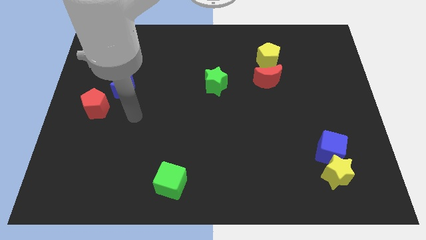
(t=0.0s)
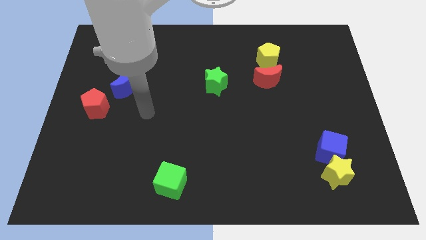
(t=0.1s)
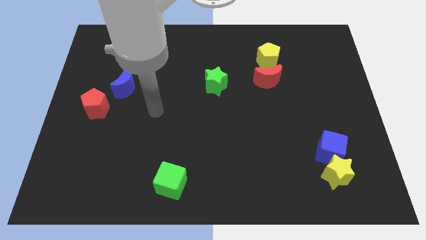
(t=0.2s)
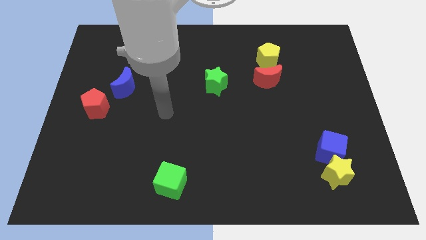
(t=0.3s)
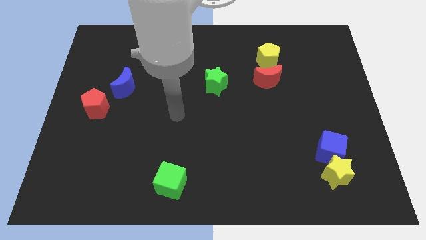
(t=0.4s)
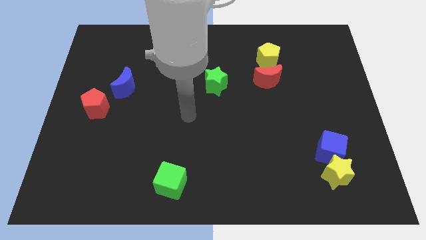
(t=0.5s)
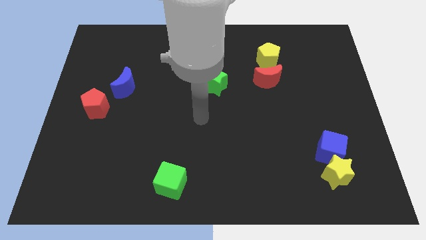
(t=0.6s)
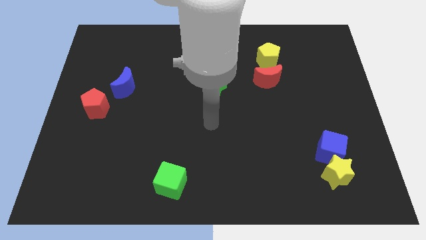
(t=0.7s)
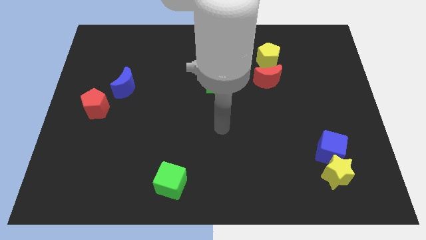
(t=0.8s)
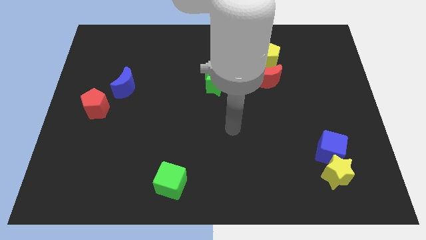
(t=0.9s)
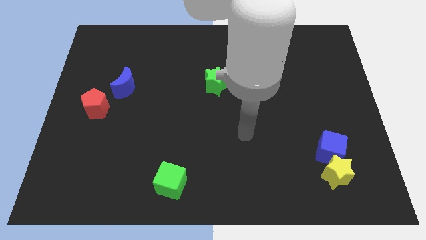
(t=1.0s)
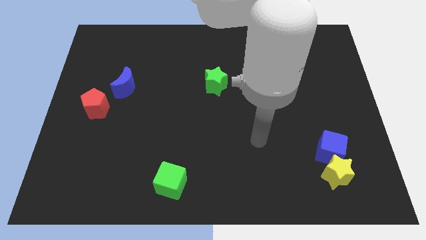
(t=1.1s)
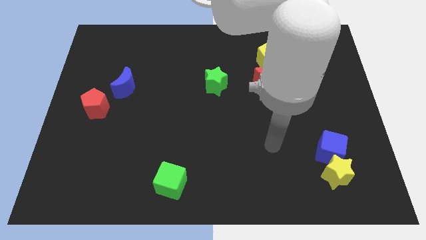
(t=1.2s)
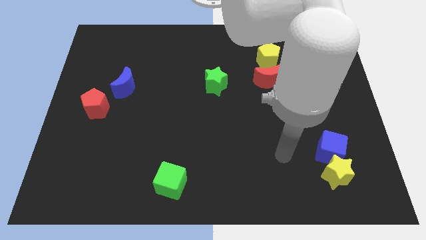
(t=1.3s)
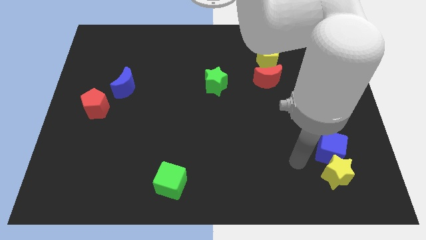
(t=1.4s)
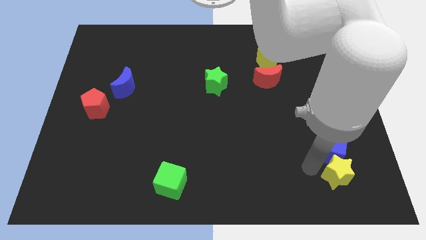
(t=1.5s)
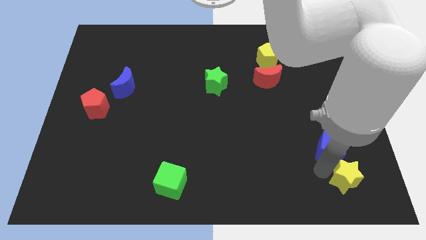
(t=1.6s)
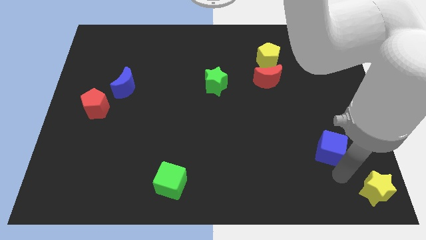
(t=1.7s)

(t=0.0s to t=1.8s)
separate the blue cube from the yellow star

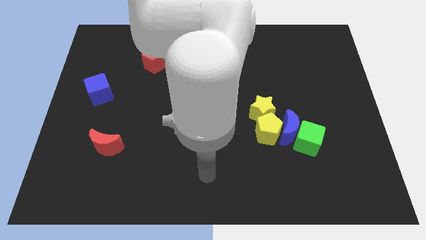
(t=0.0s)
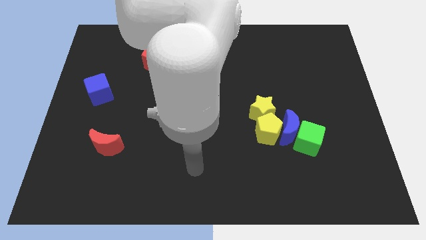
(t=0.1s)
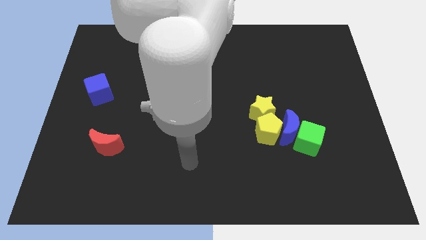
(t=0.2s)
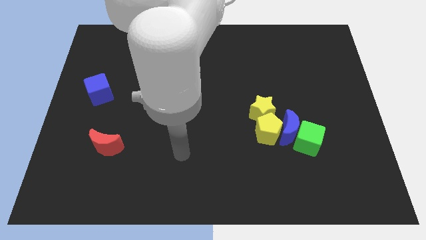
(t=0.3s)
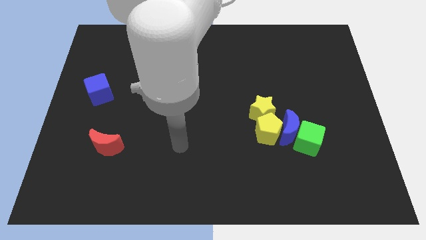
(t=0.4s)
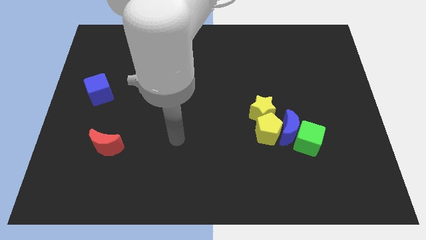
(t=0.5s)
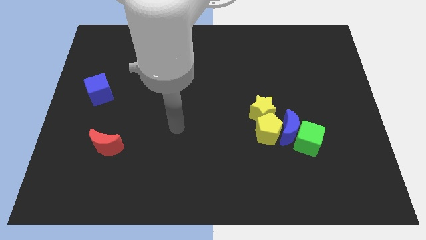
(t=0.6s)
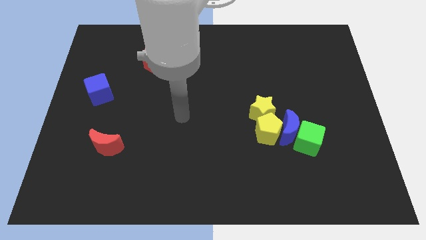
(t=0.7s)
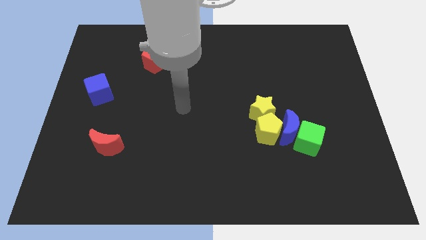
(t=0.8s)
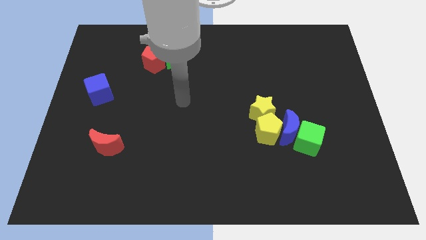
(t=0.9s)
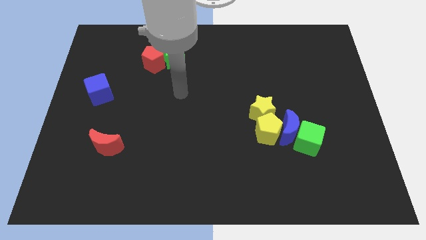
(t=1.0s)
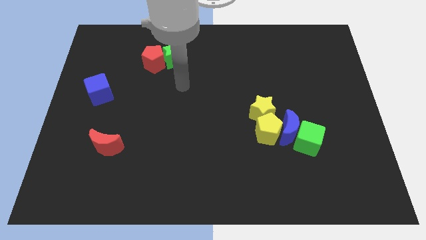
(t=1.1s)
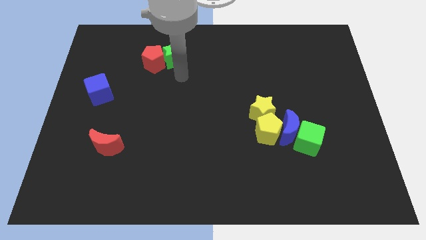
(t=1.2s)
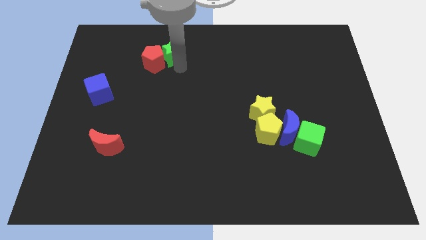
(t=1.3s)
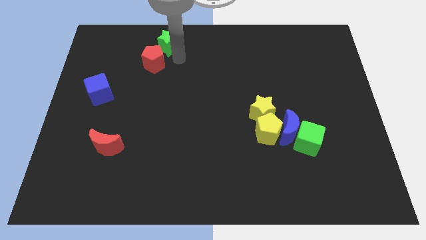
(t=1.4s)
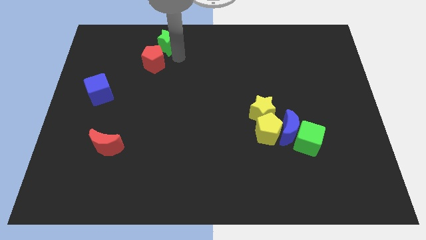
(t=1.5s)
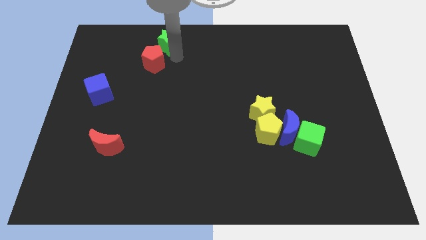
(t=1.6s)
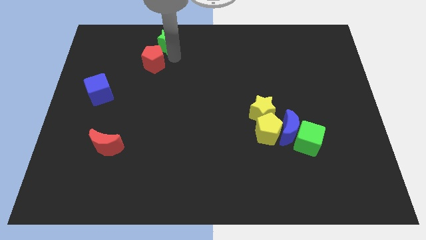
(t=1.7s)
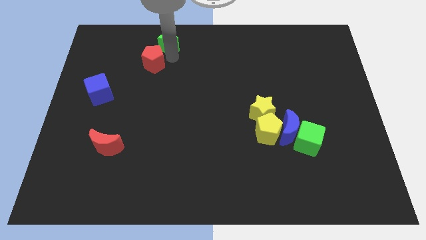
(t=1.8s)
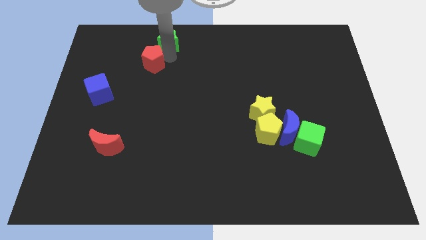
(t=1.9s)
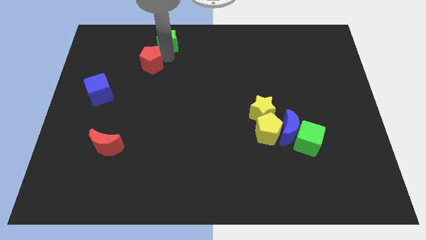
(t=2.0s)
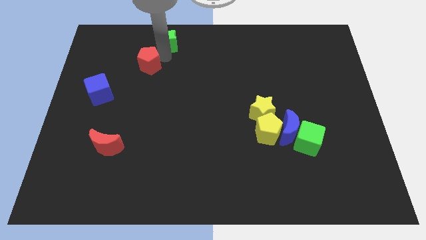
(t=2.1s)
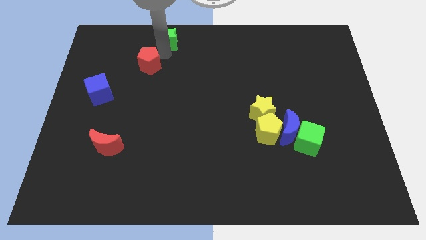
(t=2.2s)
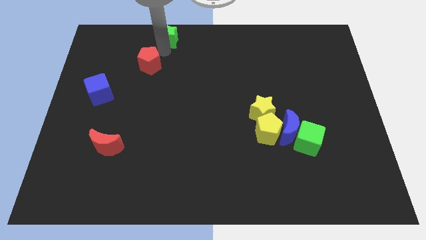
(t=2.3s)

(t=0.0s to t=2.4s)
move the red pentagon away from the green star

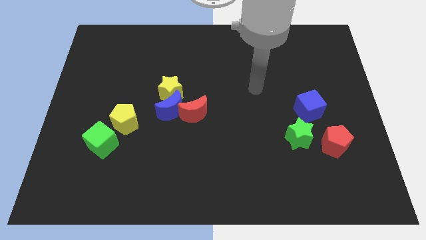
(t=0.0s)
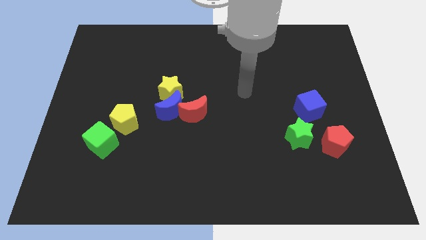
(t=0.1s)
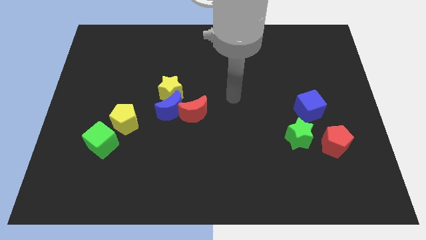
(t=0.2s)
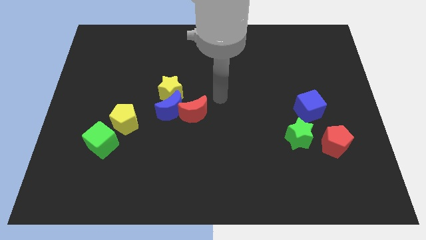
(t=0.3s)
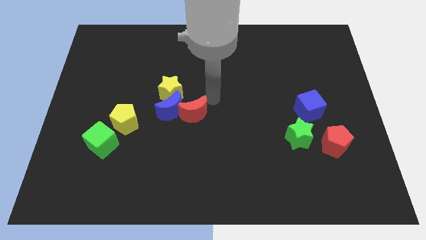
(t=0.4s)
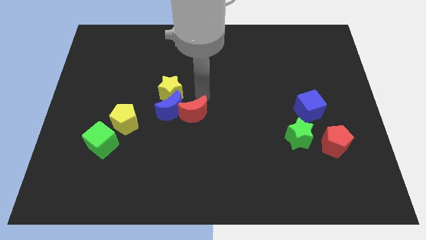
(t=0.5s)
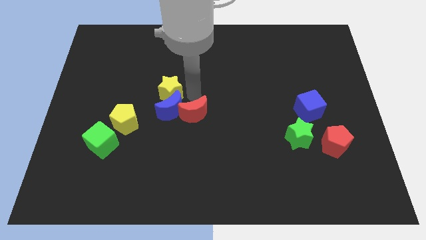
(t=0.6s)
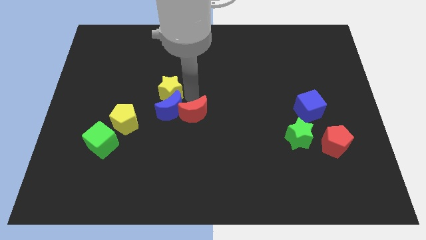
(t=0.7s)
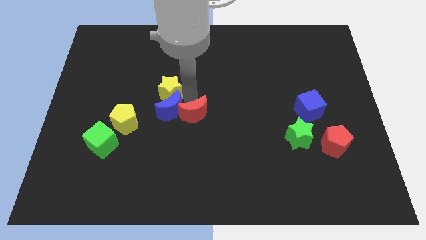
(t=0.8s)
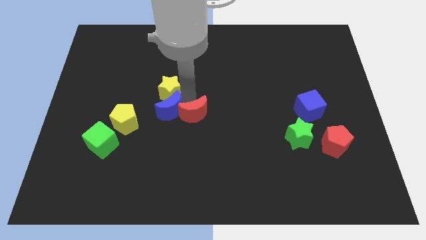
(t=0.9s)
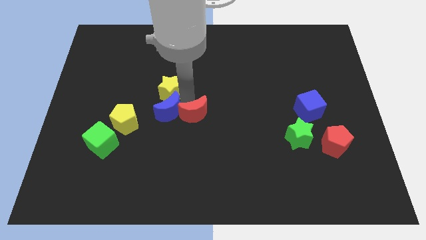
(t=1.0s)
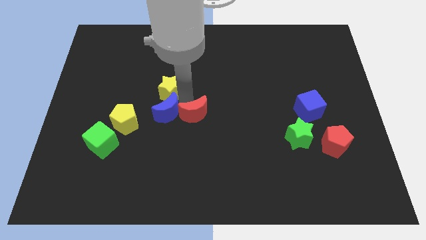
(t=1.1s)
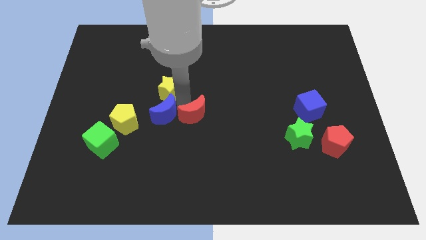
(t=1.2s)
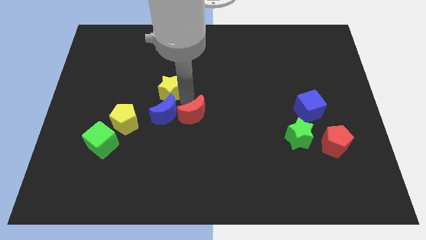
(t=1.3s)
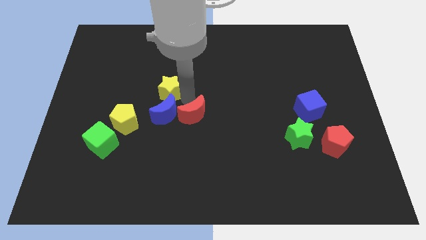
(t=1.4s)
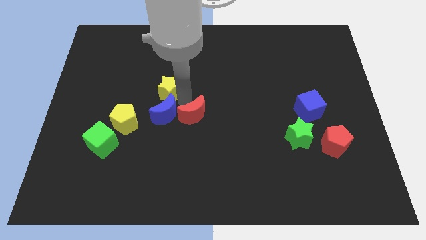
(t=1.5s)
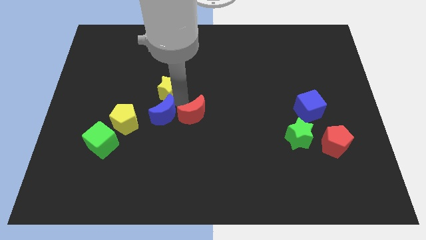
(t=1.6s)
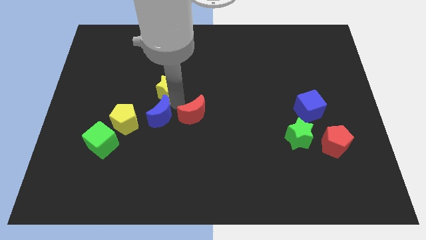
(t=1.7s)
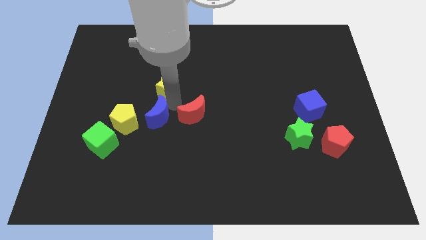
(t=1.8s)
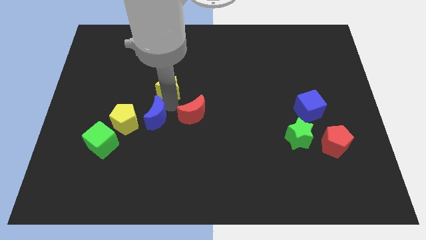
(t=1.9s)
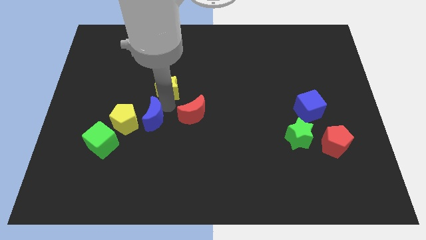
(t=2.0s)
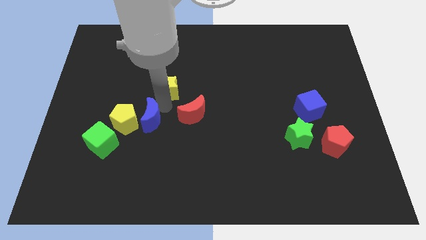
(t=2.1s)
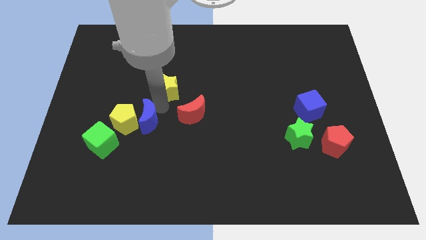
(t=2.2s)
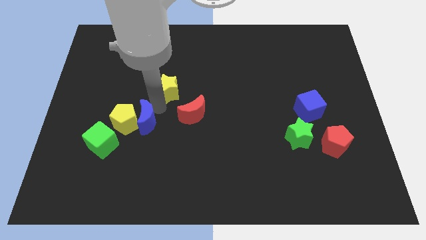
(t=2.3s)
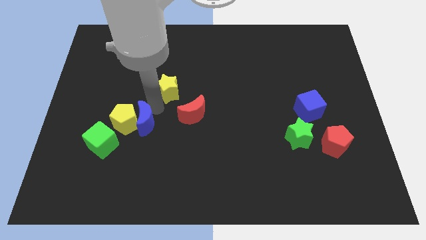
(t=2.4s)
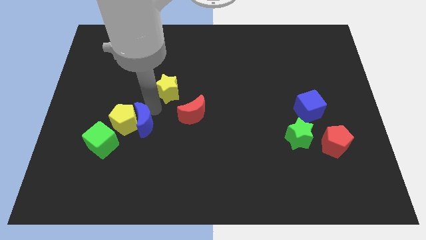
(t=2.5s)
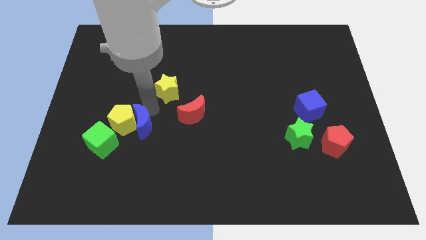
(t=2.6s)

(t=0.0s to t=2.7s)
separate the blue moon from the red moon and yellow star

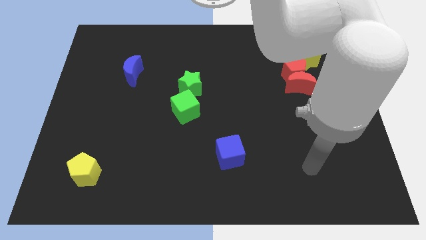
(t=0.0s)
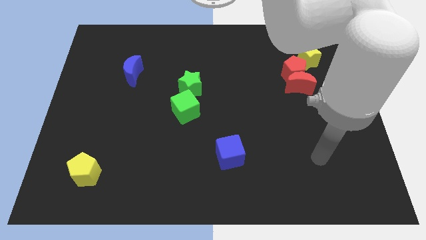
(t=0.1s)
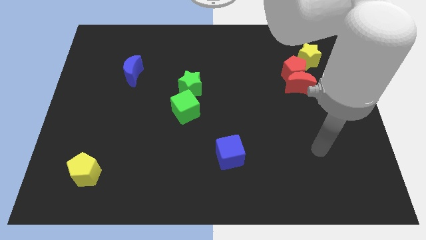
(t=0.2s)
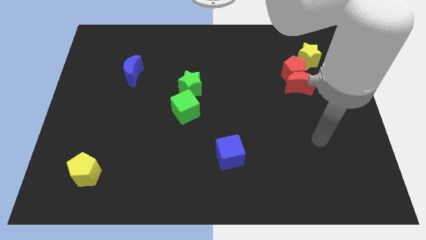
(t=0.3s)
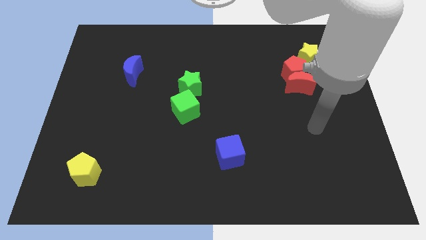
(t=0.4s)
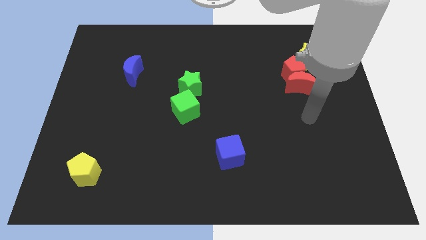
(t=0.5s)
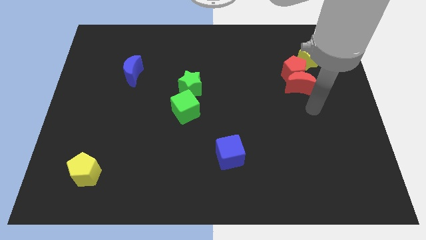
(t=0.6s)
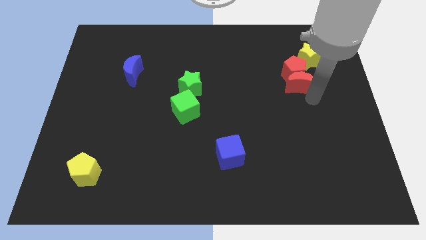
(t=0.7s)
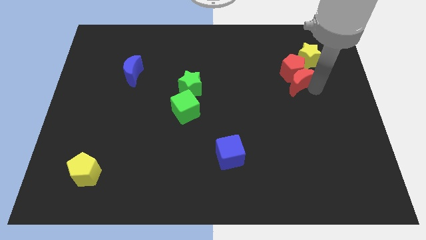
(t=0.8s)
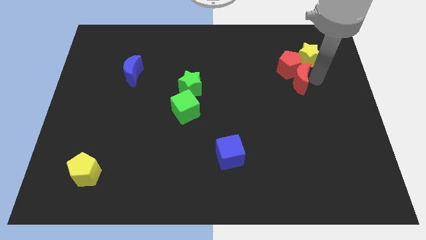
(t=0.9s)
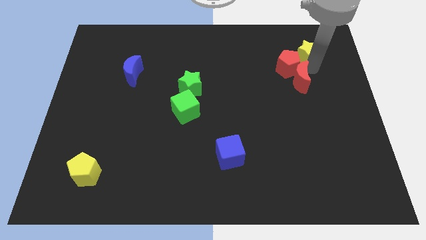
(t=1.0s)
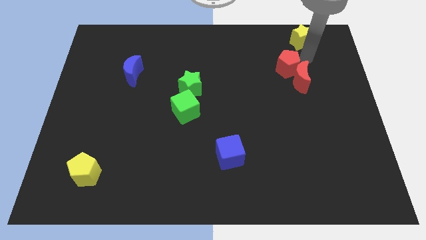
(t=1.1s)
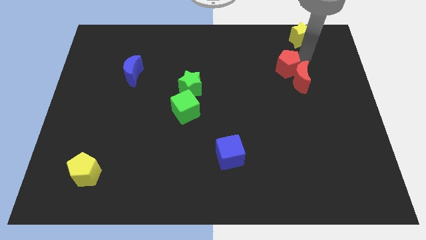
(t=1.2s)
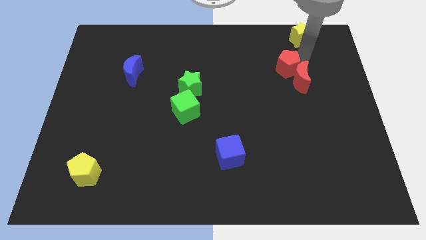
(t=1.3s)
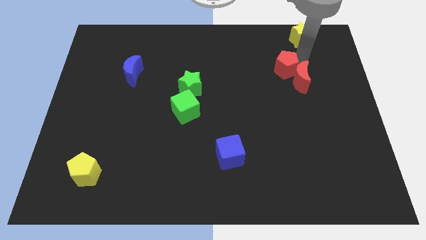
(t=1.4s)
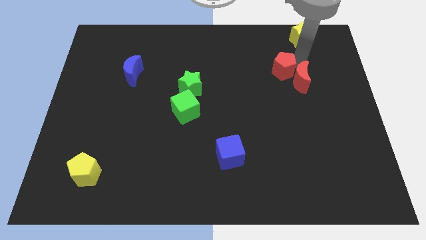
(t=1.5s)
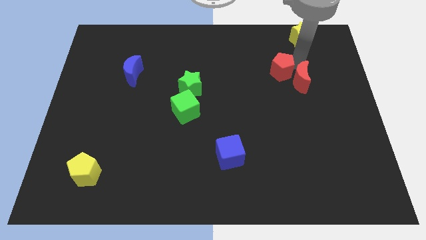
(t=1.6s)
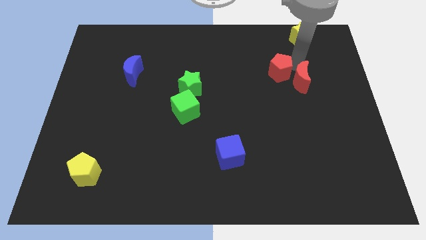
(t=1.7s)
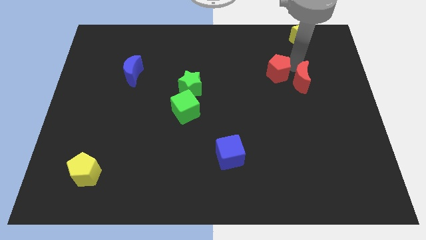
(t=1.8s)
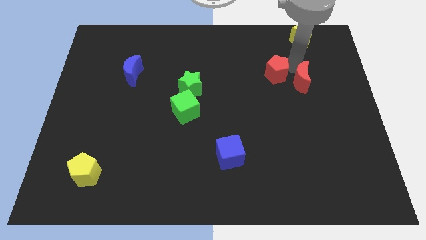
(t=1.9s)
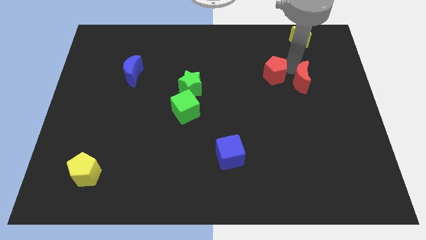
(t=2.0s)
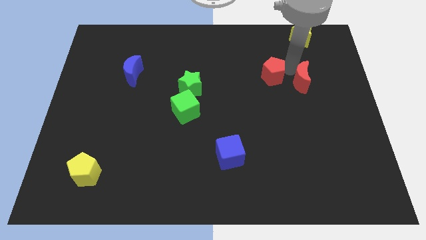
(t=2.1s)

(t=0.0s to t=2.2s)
move the red pentagon away from the red moon and yellow star

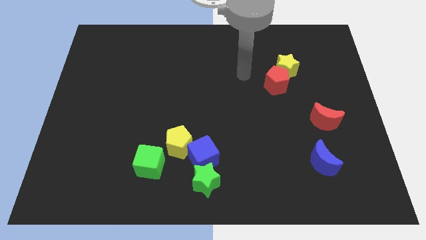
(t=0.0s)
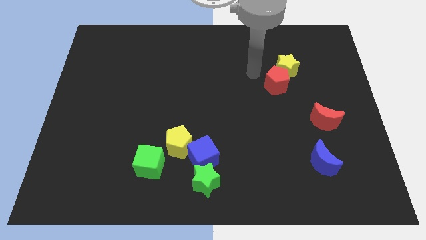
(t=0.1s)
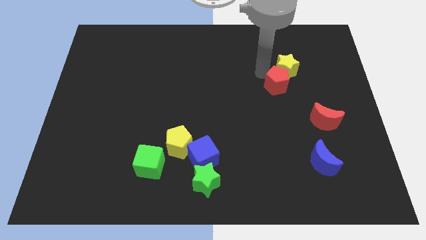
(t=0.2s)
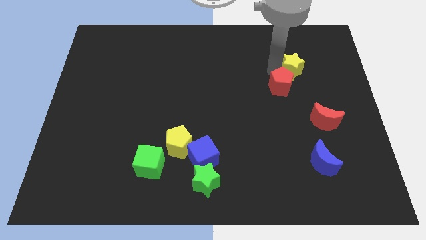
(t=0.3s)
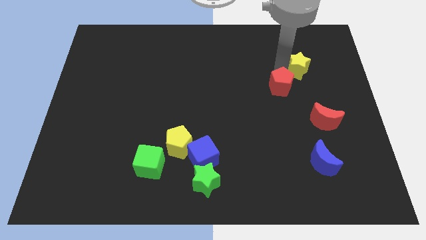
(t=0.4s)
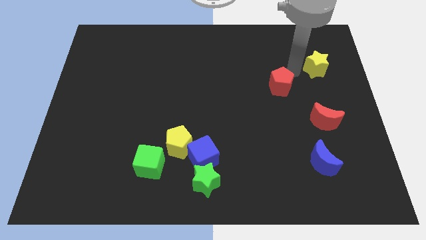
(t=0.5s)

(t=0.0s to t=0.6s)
pull the red pentagon apart from the yellow star
